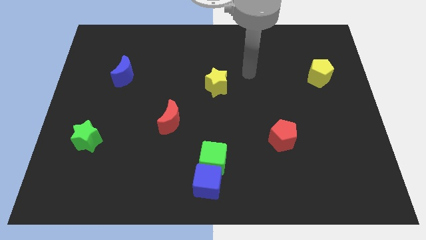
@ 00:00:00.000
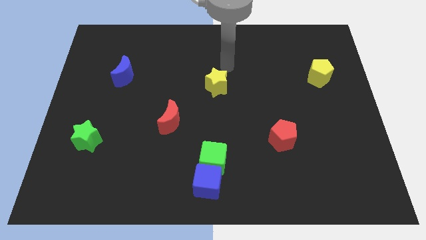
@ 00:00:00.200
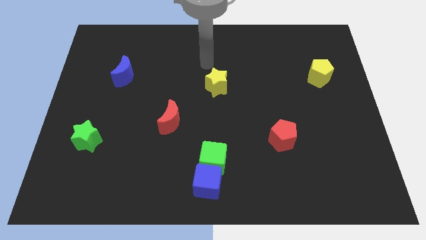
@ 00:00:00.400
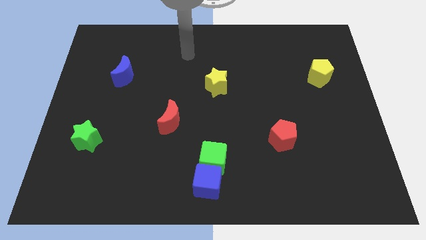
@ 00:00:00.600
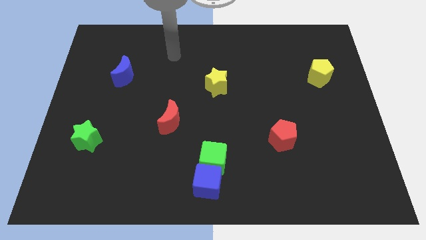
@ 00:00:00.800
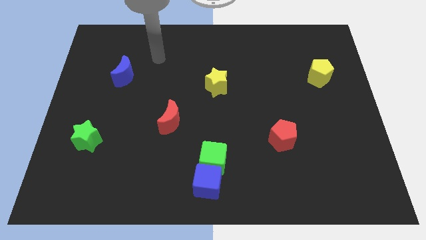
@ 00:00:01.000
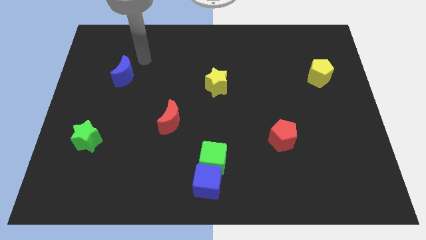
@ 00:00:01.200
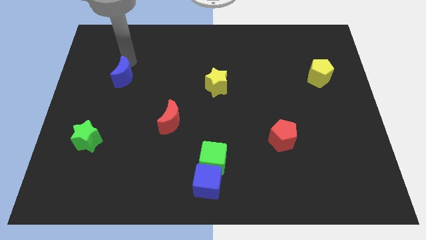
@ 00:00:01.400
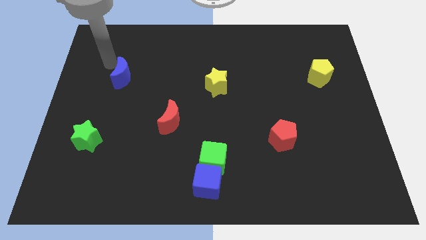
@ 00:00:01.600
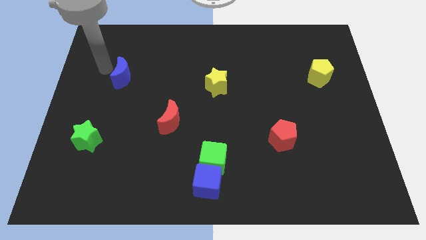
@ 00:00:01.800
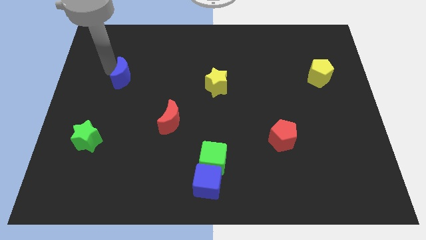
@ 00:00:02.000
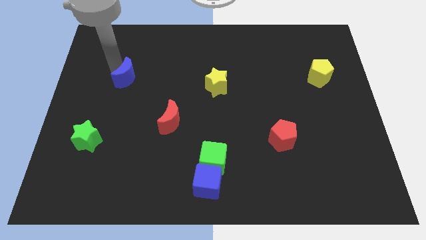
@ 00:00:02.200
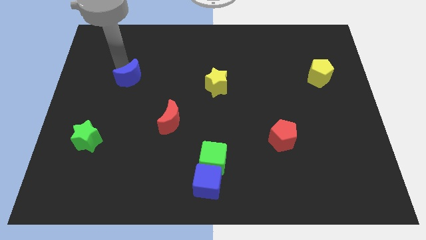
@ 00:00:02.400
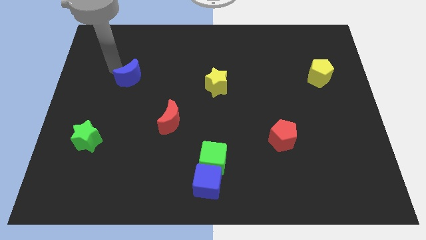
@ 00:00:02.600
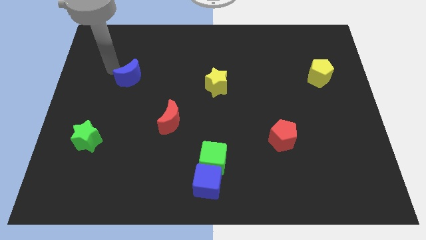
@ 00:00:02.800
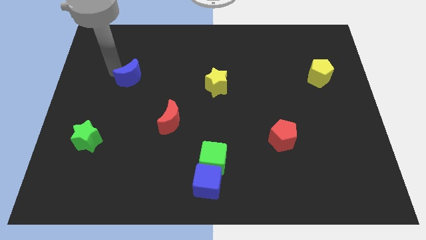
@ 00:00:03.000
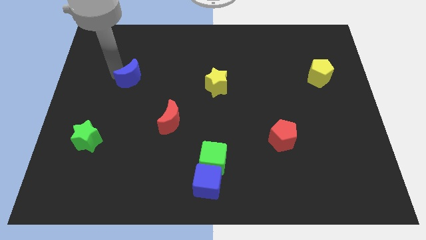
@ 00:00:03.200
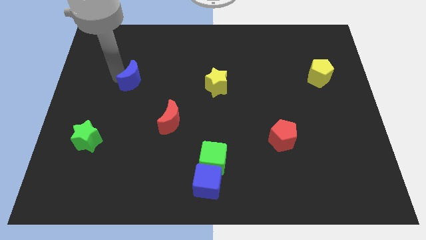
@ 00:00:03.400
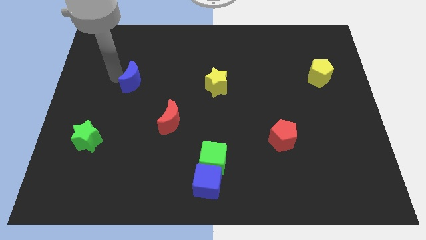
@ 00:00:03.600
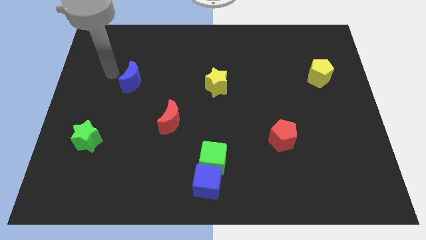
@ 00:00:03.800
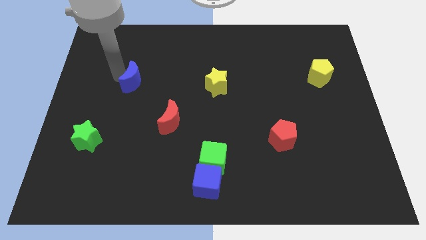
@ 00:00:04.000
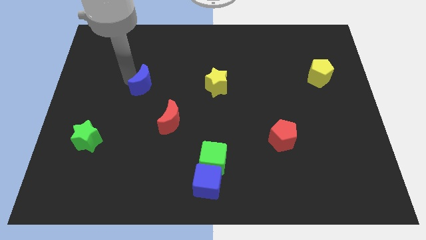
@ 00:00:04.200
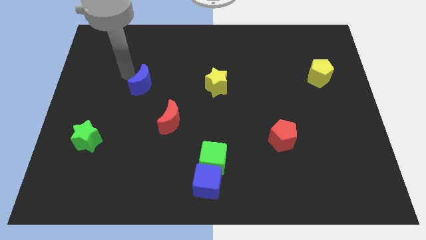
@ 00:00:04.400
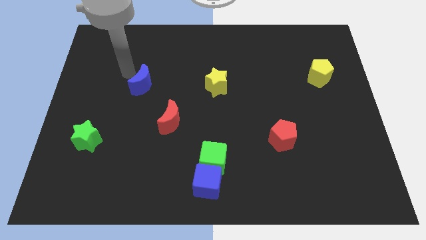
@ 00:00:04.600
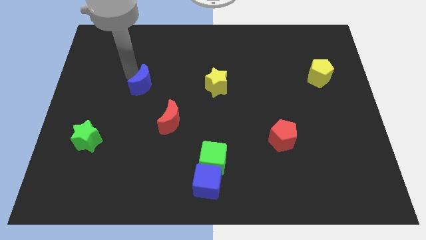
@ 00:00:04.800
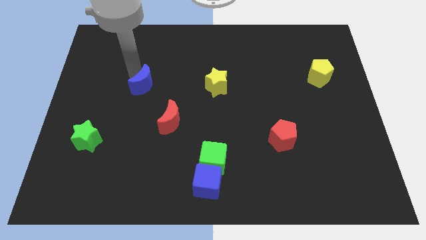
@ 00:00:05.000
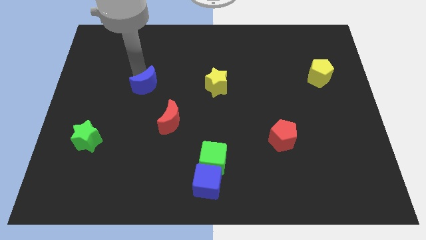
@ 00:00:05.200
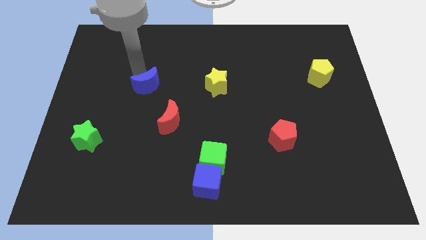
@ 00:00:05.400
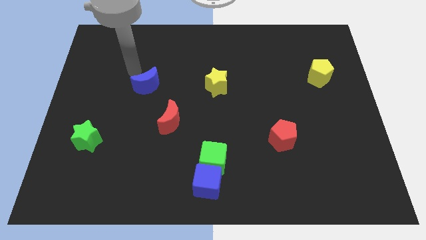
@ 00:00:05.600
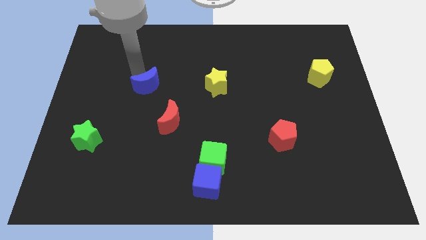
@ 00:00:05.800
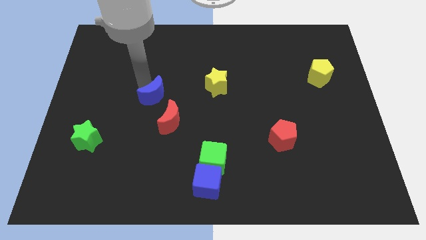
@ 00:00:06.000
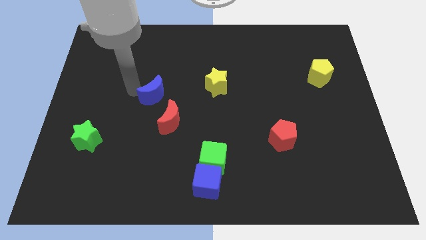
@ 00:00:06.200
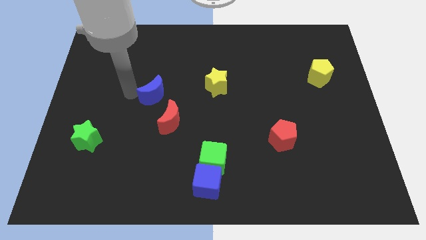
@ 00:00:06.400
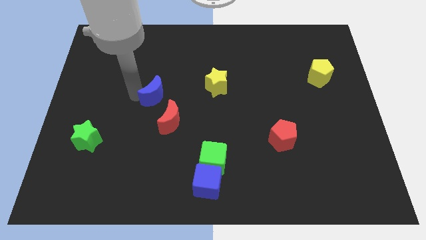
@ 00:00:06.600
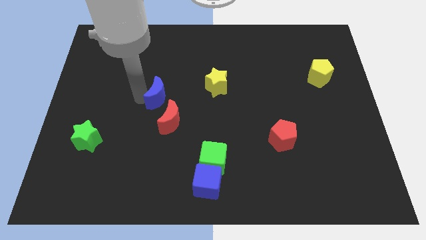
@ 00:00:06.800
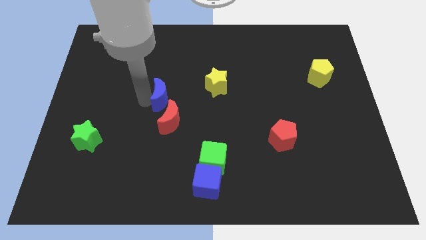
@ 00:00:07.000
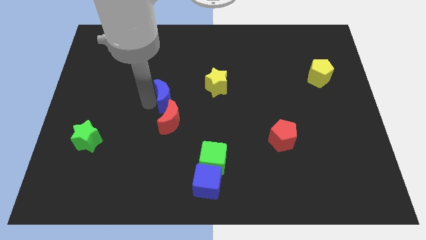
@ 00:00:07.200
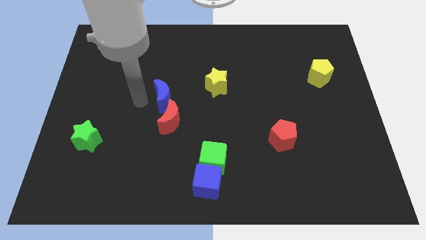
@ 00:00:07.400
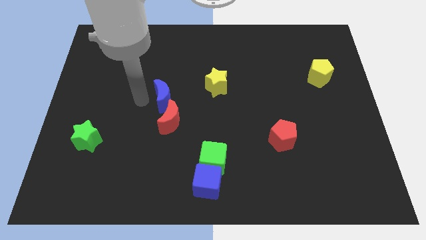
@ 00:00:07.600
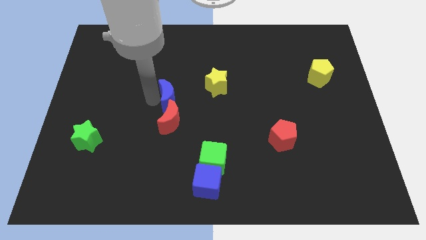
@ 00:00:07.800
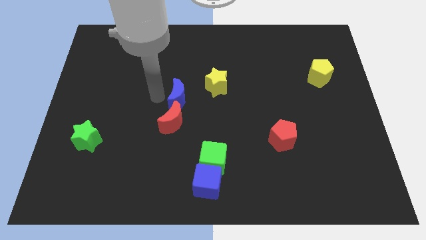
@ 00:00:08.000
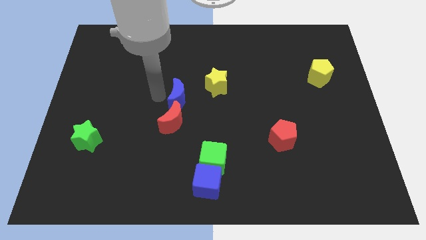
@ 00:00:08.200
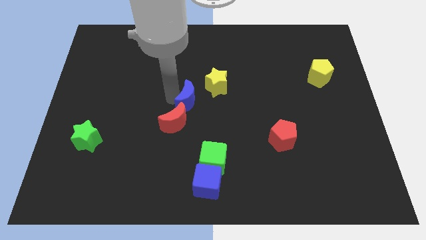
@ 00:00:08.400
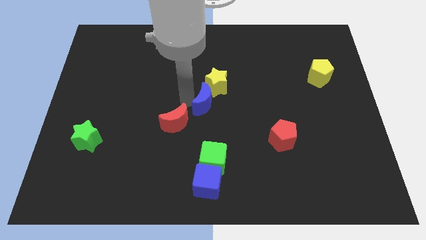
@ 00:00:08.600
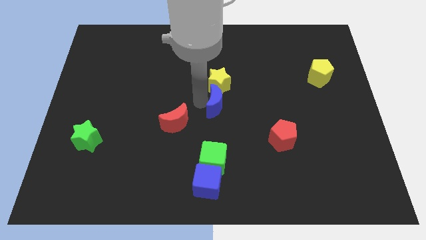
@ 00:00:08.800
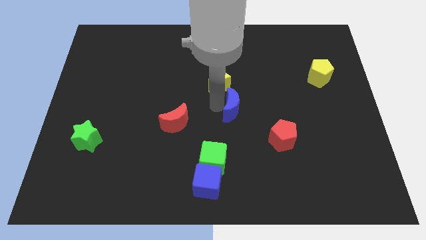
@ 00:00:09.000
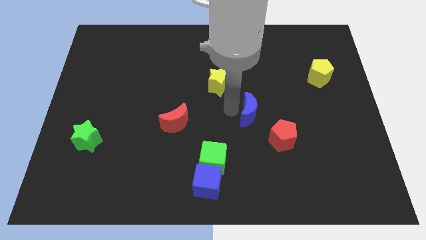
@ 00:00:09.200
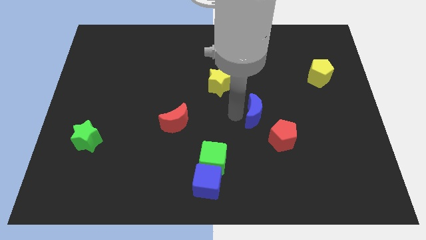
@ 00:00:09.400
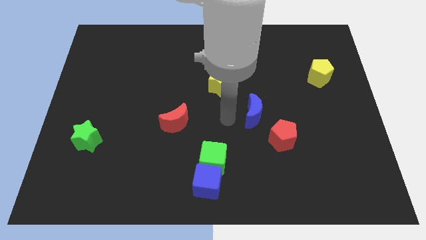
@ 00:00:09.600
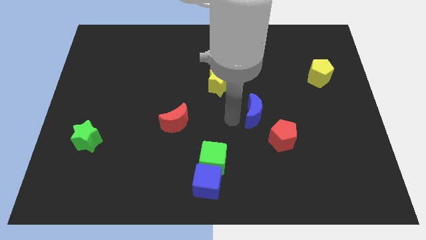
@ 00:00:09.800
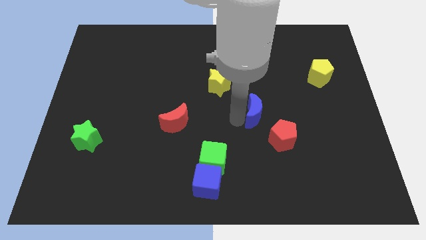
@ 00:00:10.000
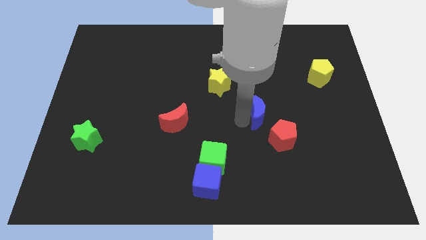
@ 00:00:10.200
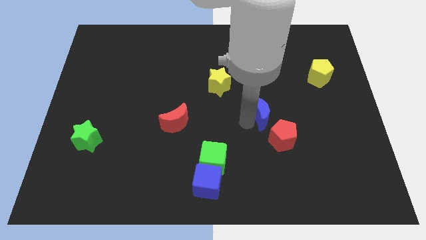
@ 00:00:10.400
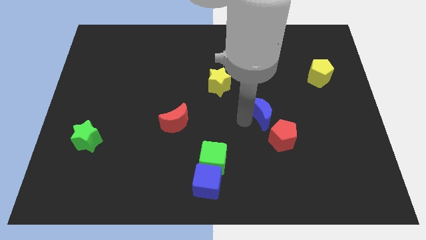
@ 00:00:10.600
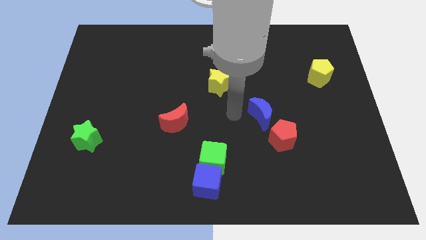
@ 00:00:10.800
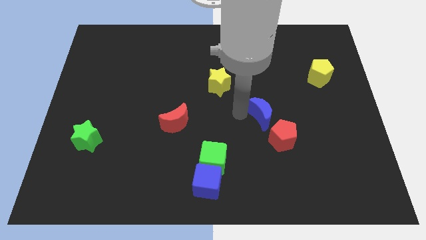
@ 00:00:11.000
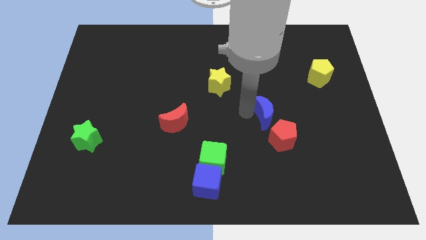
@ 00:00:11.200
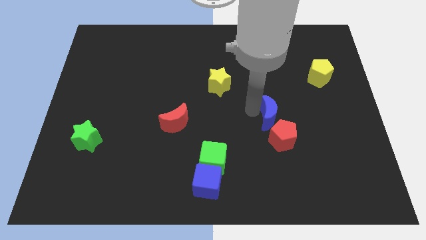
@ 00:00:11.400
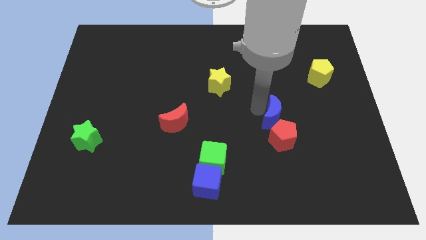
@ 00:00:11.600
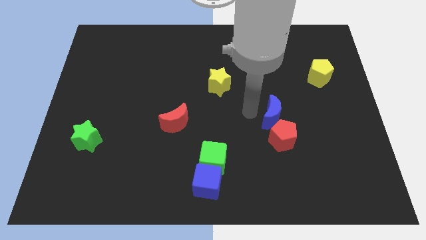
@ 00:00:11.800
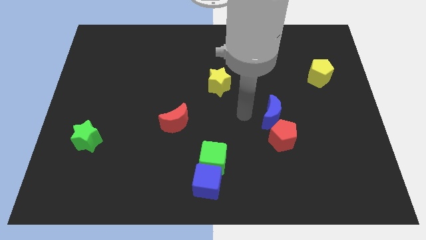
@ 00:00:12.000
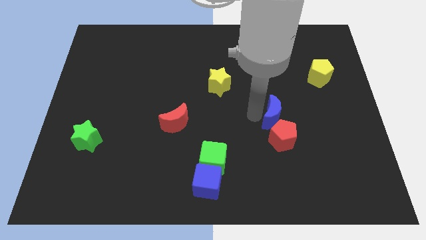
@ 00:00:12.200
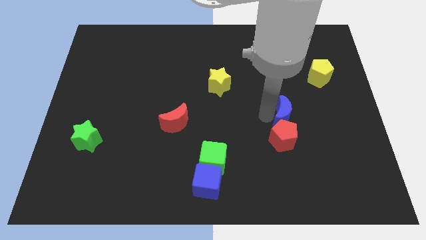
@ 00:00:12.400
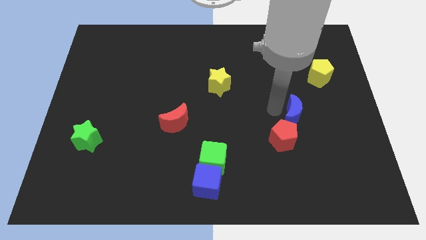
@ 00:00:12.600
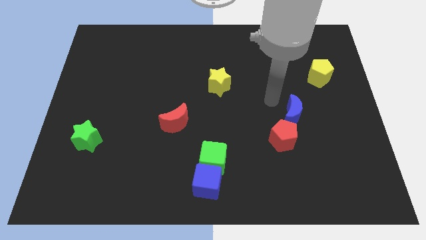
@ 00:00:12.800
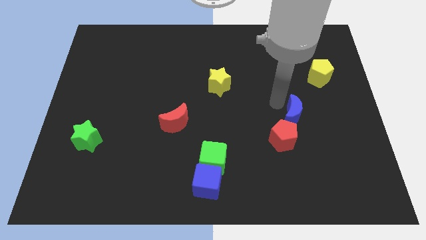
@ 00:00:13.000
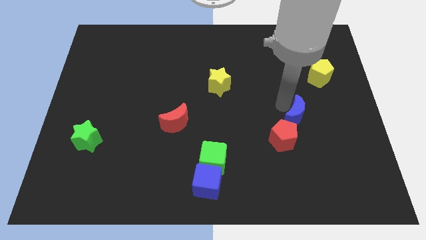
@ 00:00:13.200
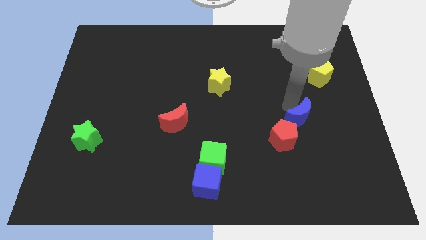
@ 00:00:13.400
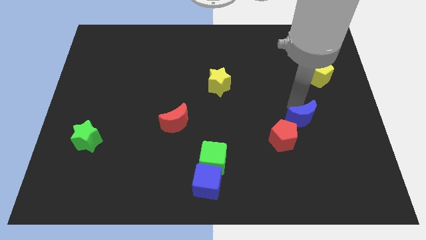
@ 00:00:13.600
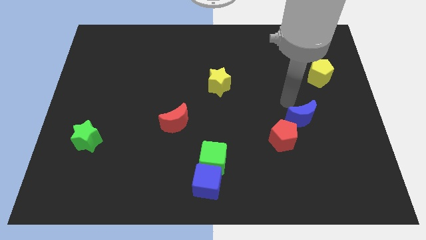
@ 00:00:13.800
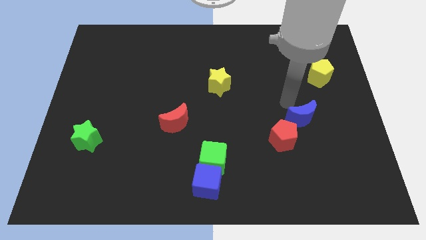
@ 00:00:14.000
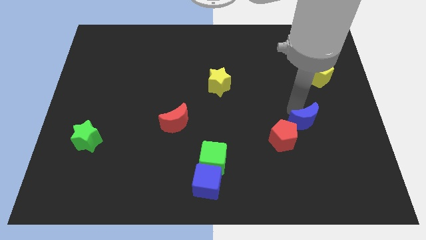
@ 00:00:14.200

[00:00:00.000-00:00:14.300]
push the blue moon to the right of the red pentagon
